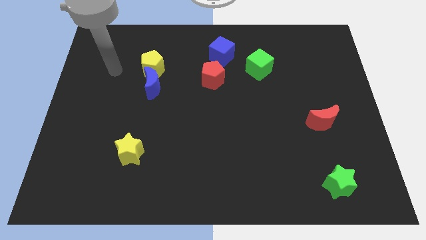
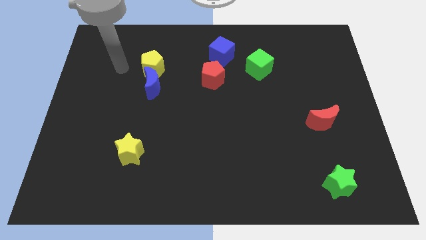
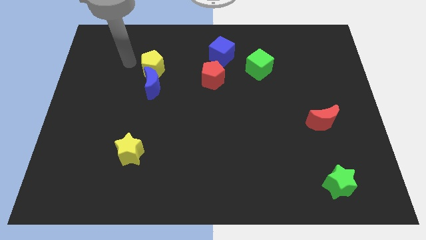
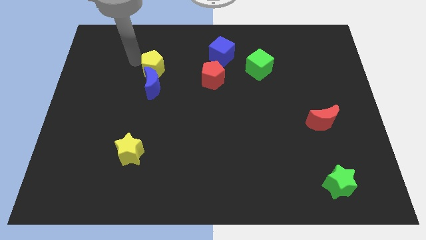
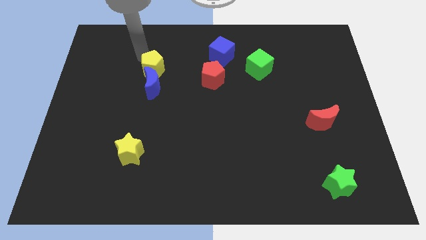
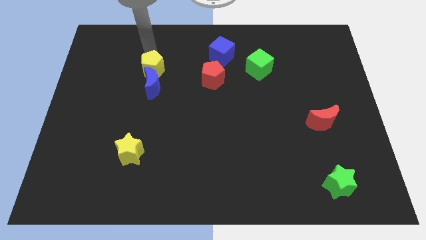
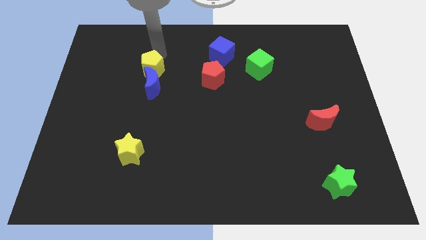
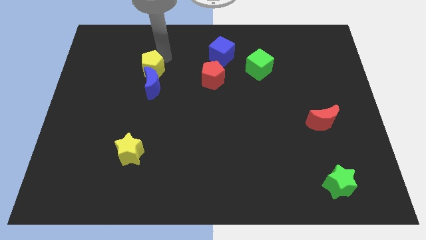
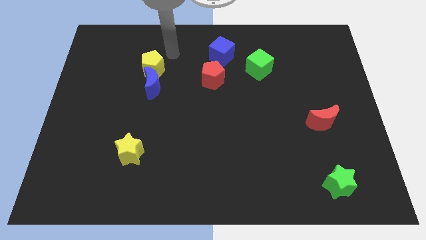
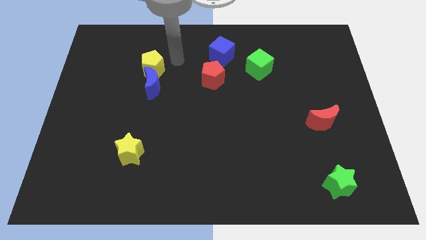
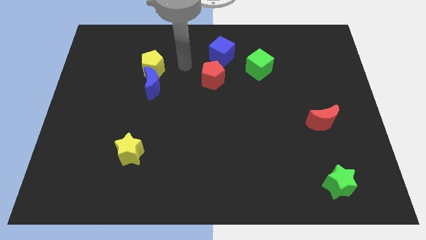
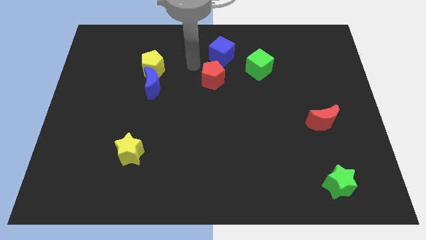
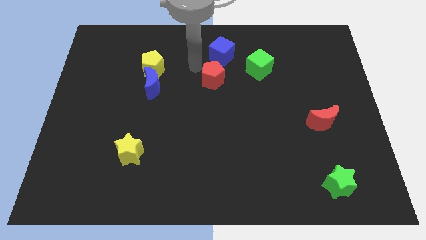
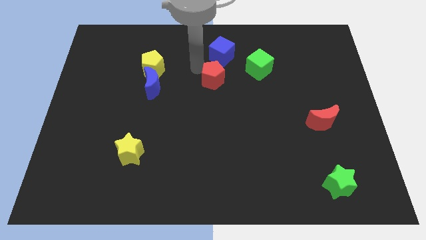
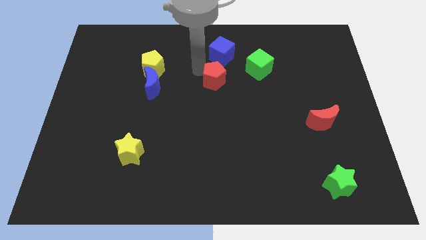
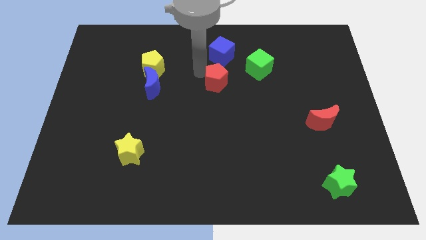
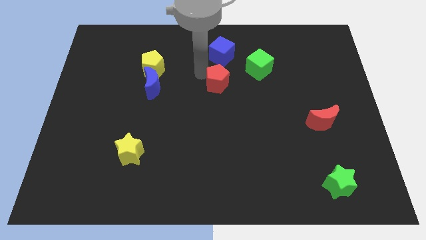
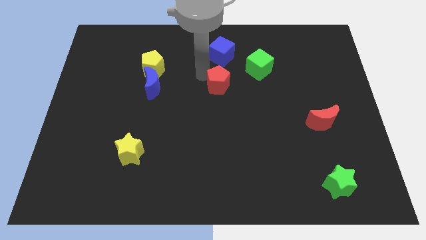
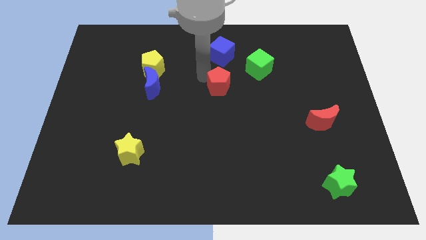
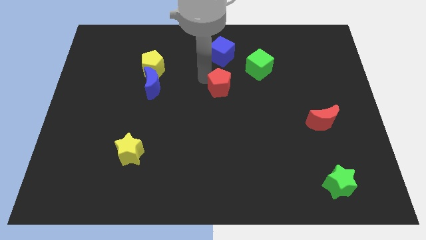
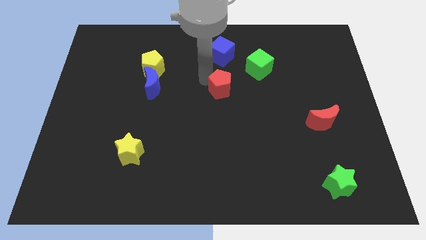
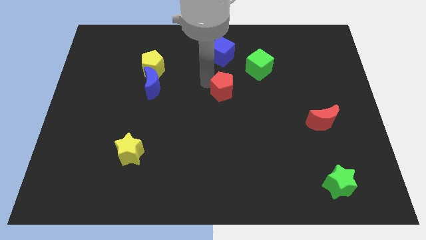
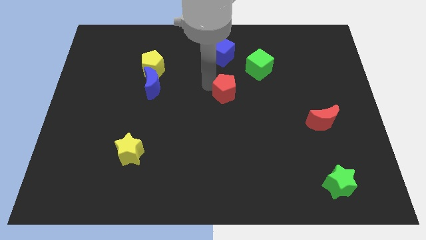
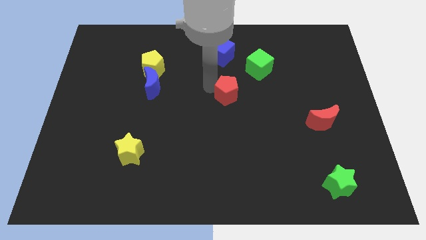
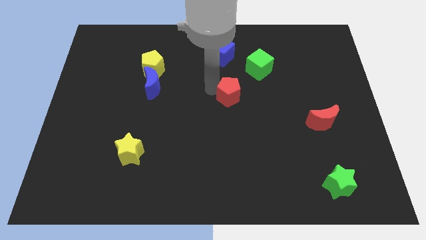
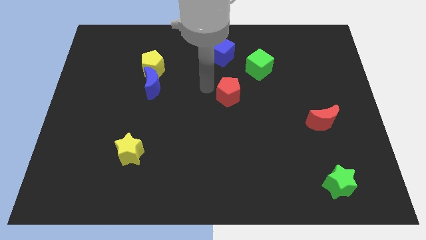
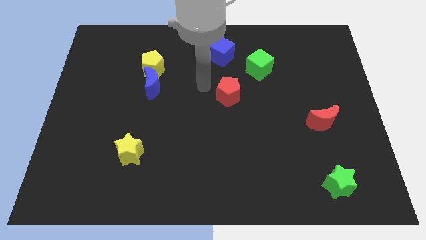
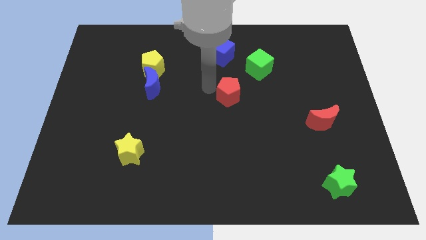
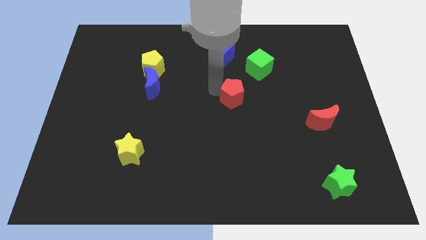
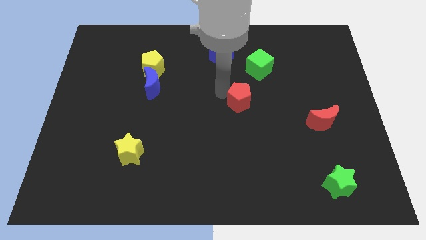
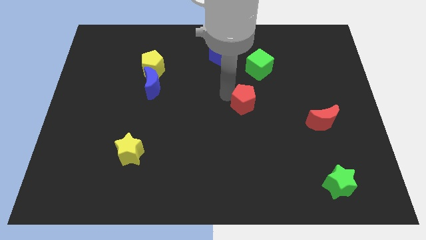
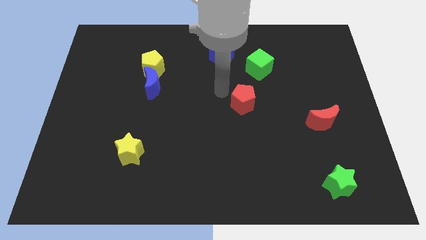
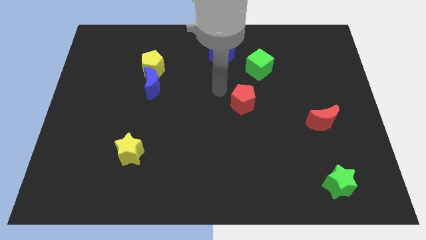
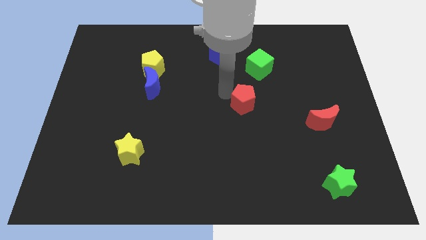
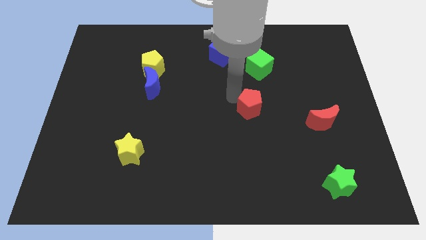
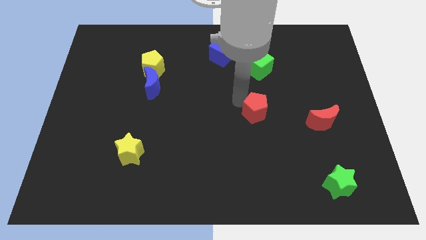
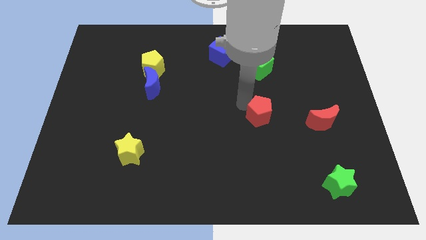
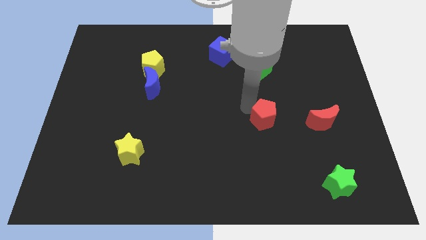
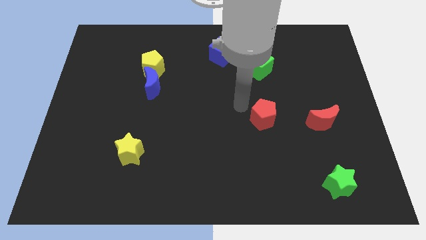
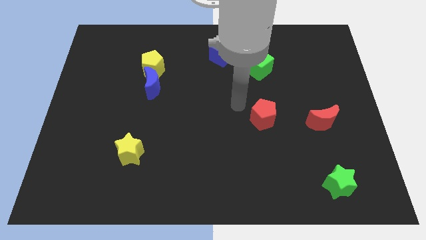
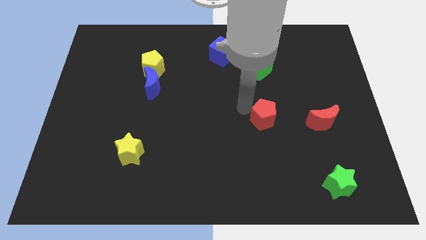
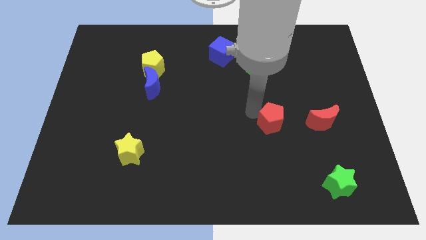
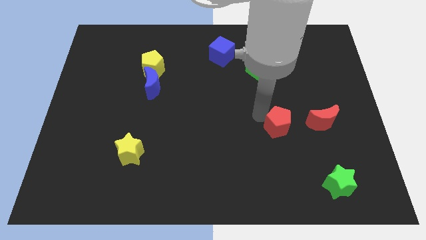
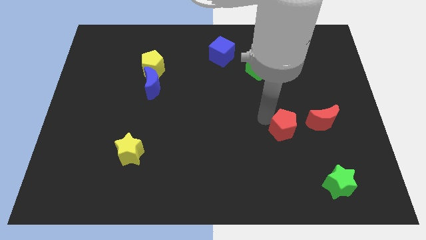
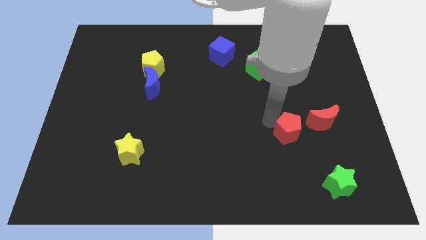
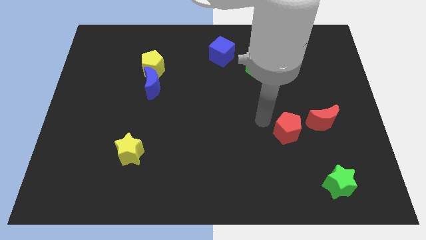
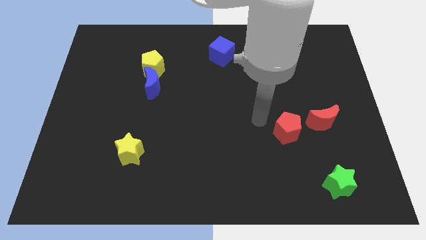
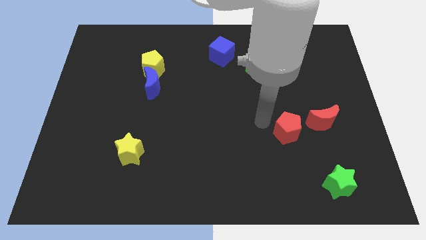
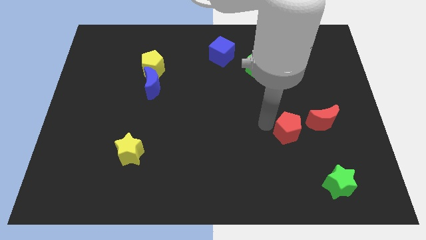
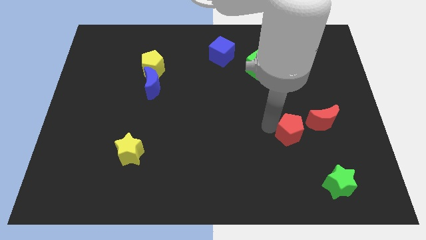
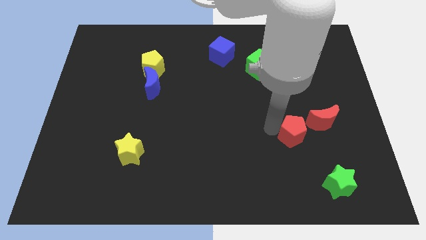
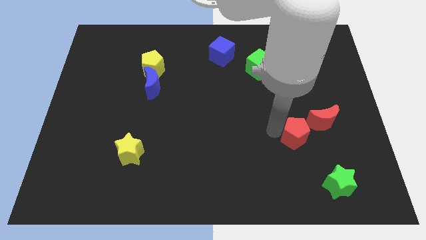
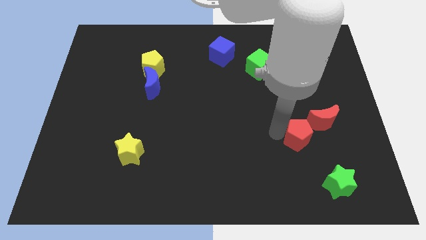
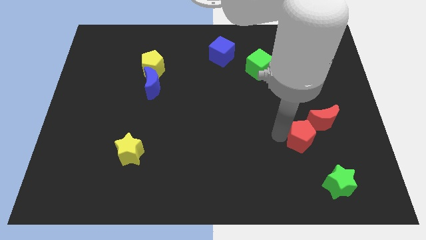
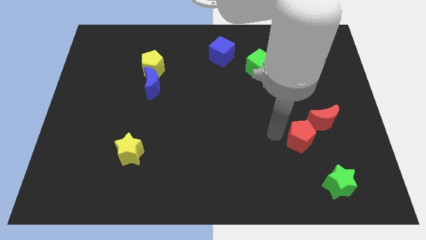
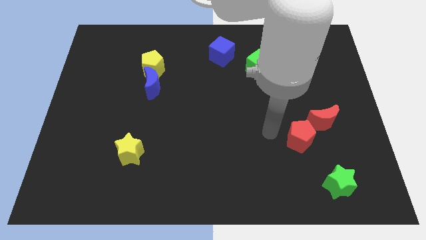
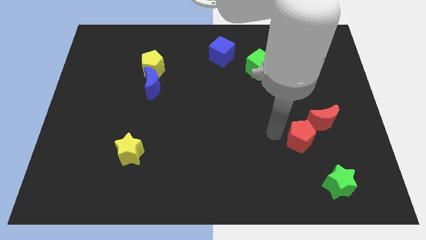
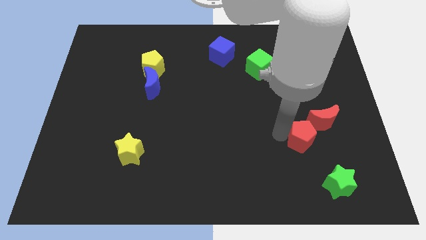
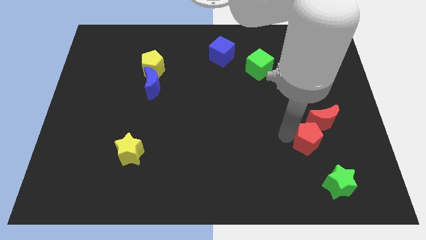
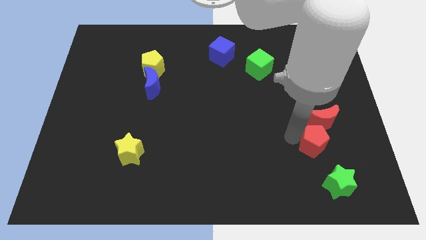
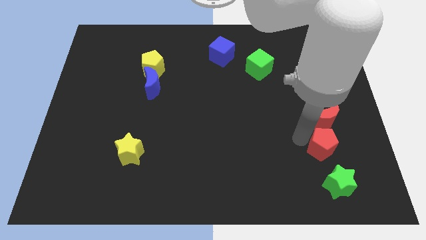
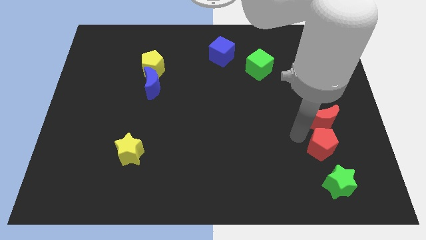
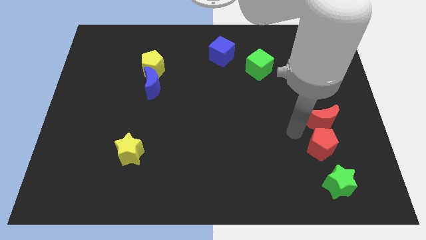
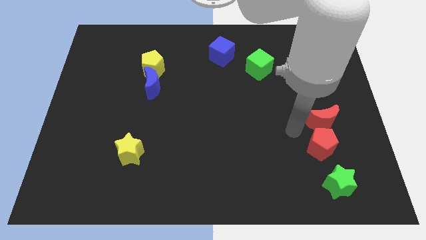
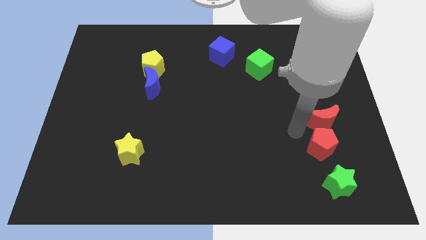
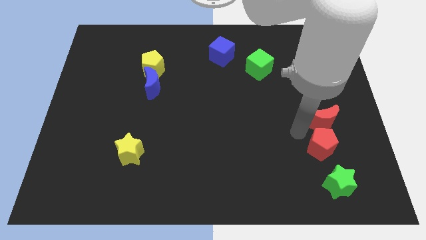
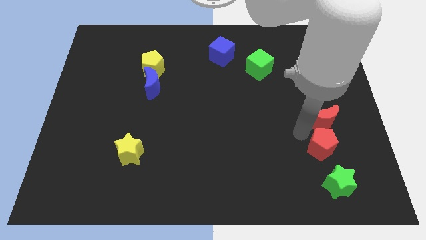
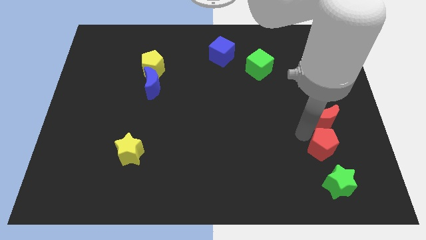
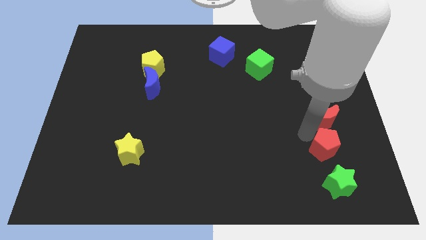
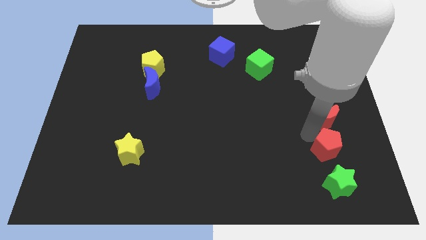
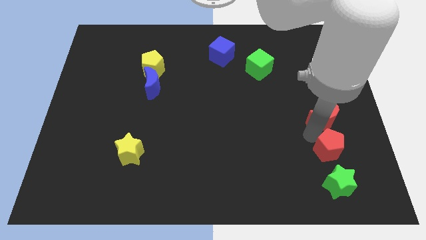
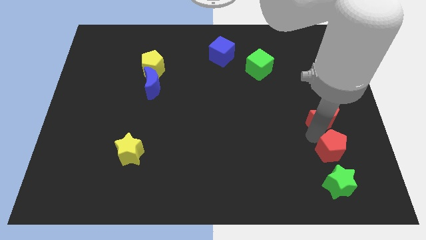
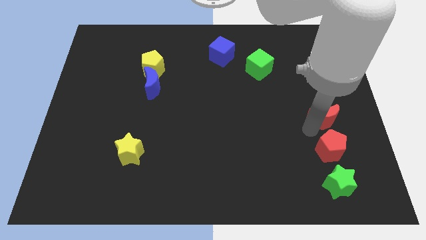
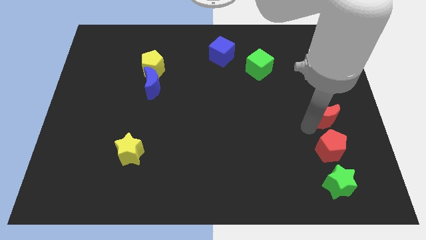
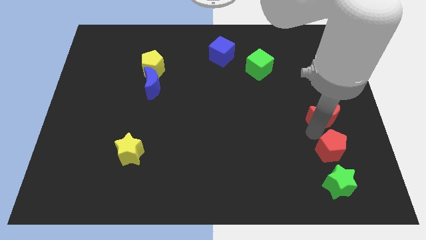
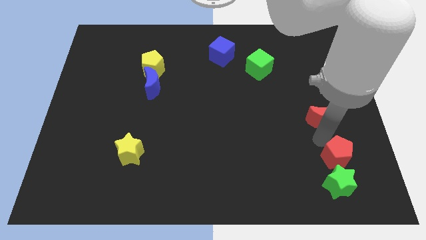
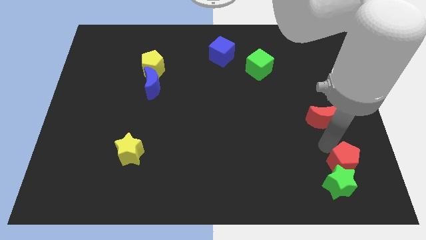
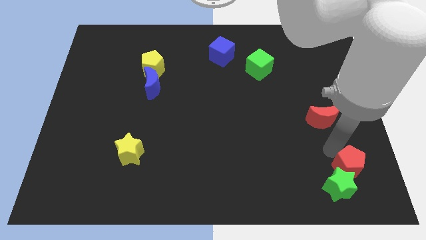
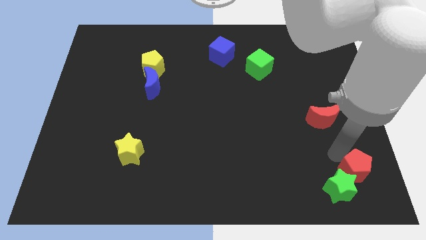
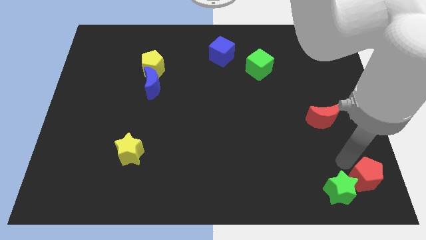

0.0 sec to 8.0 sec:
move the red pentagon to the bottom right
